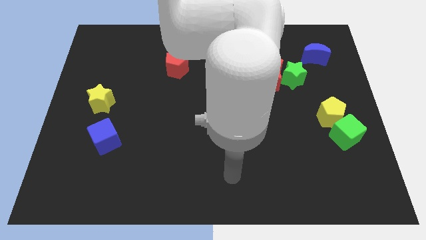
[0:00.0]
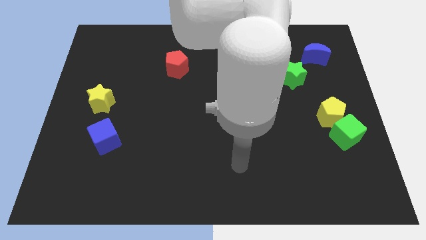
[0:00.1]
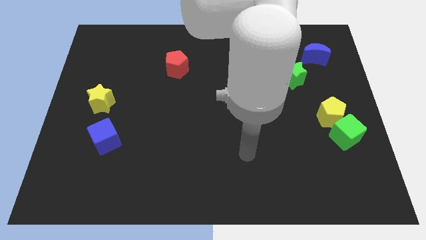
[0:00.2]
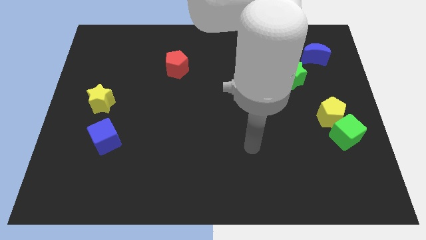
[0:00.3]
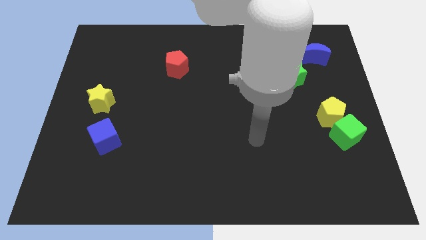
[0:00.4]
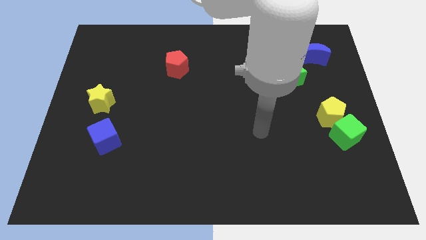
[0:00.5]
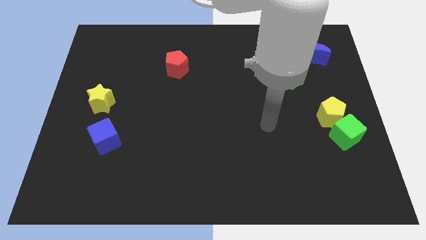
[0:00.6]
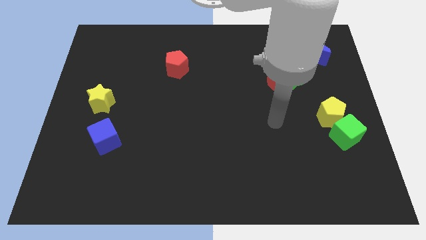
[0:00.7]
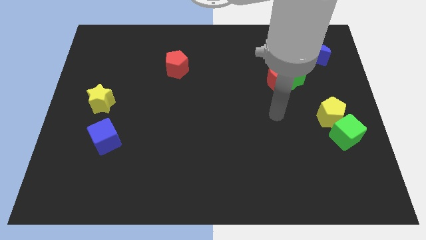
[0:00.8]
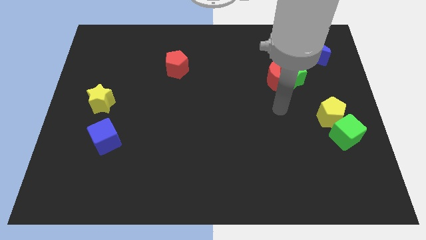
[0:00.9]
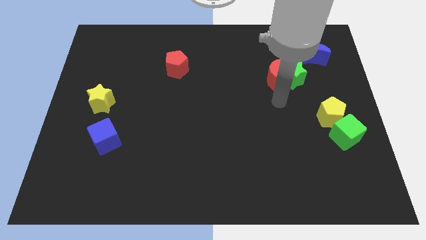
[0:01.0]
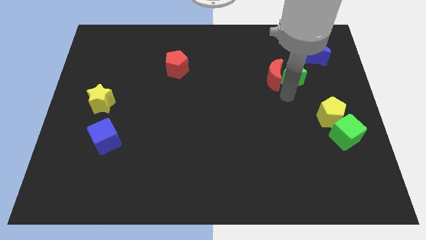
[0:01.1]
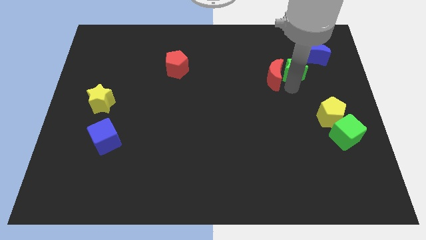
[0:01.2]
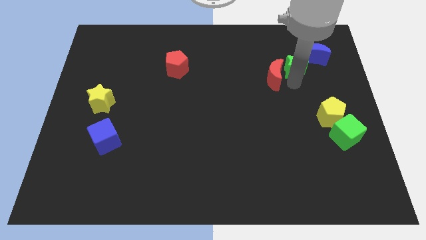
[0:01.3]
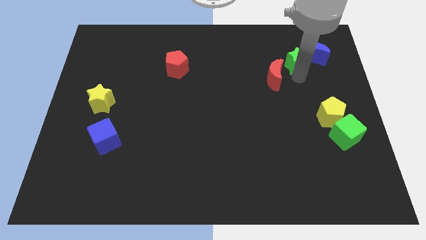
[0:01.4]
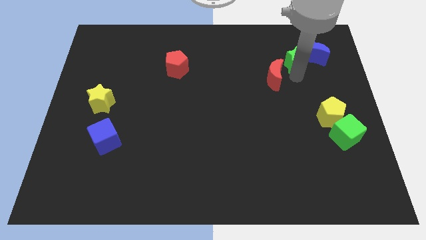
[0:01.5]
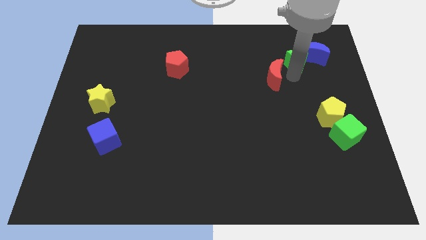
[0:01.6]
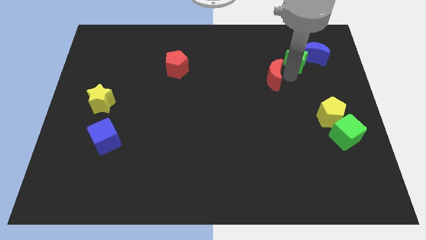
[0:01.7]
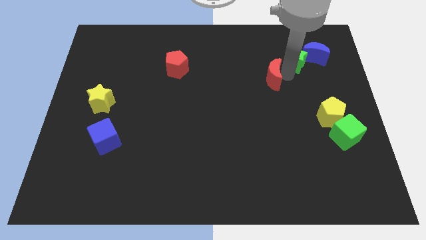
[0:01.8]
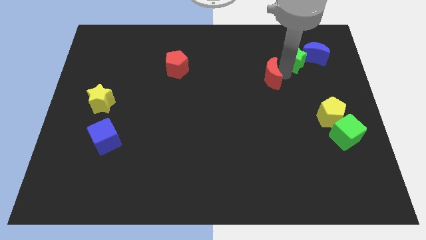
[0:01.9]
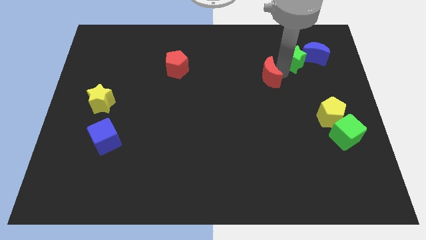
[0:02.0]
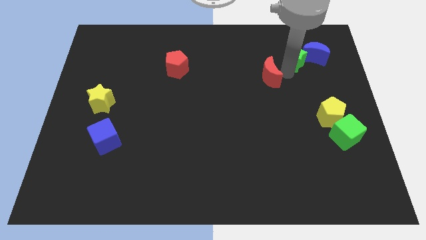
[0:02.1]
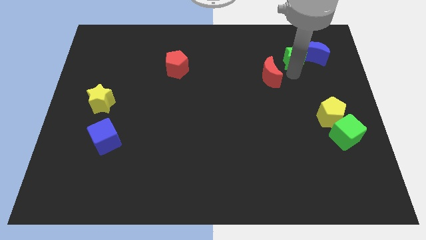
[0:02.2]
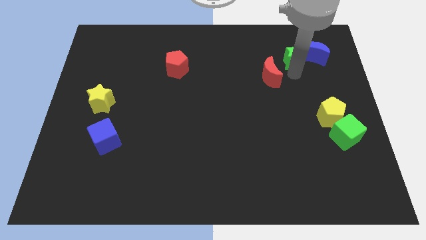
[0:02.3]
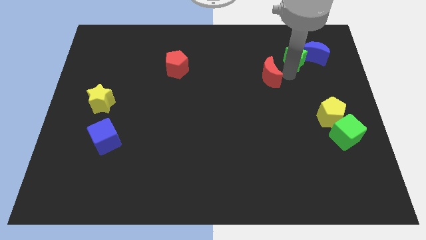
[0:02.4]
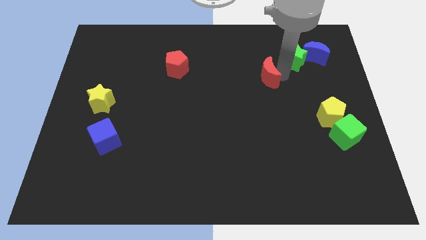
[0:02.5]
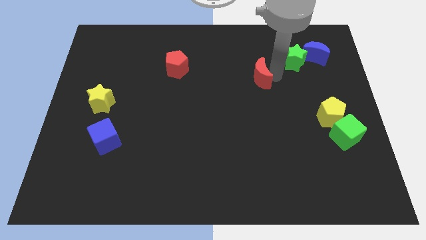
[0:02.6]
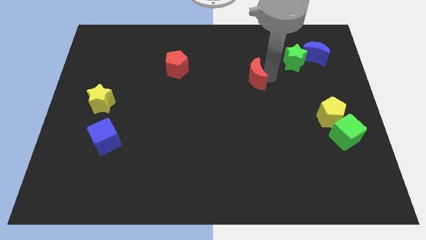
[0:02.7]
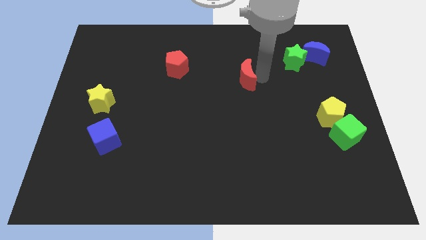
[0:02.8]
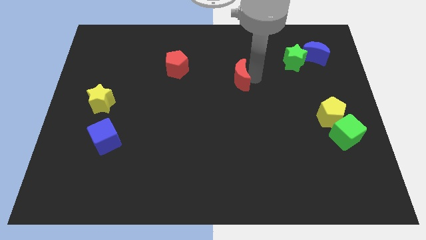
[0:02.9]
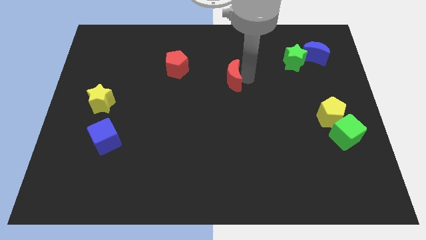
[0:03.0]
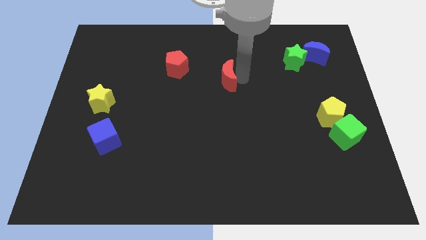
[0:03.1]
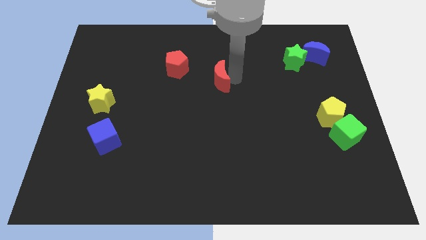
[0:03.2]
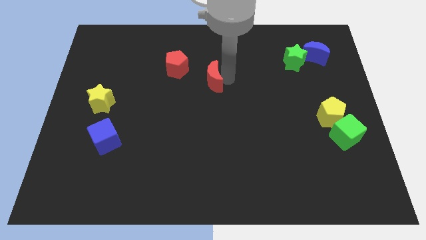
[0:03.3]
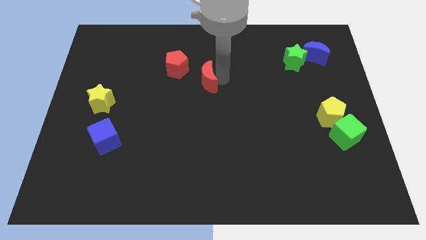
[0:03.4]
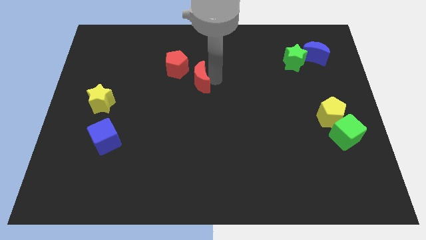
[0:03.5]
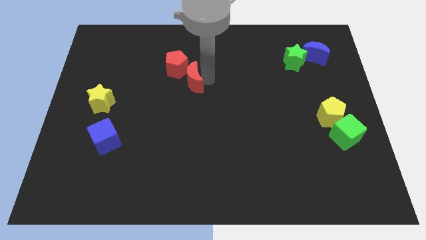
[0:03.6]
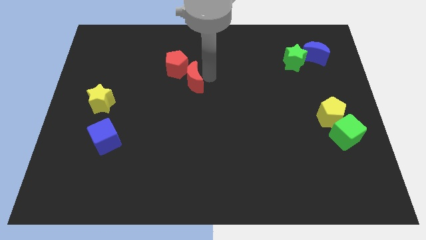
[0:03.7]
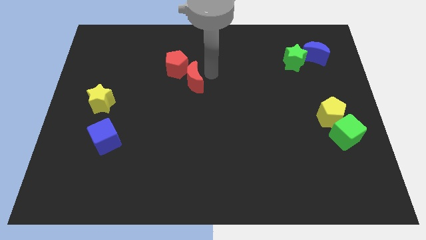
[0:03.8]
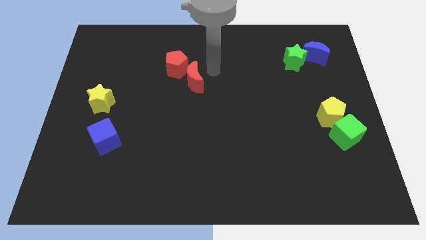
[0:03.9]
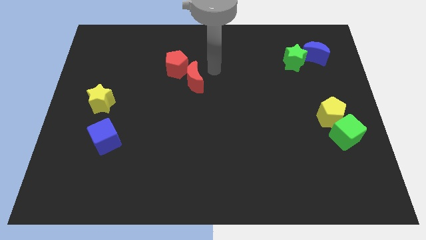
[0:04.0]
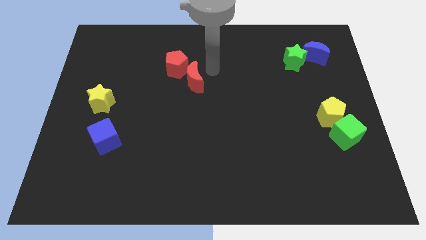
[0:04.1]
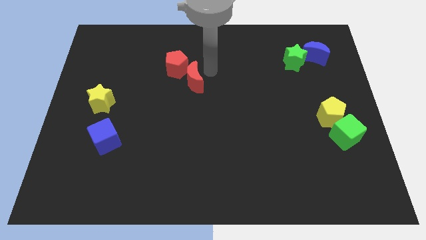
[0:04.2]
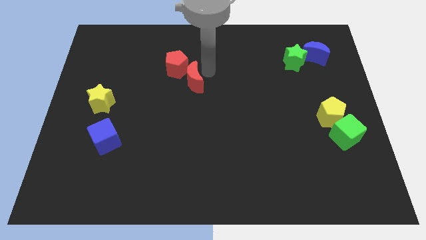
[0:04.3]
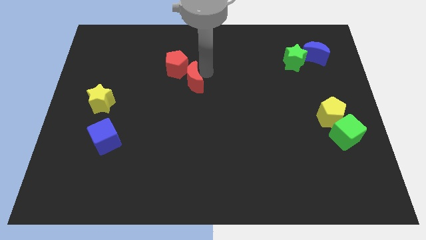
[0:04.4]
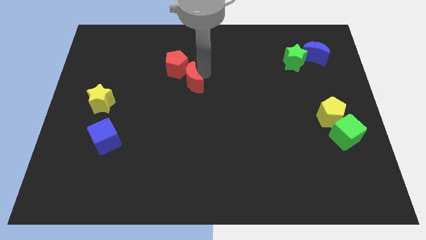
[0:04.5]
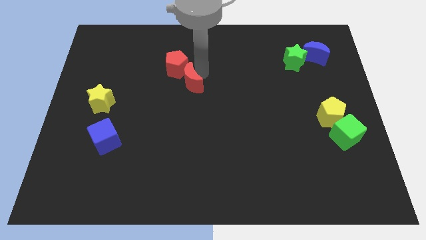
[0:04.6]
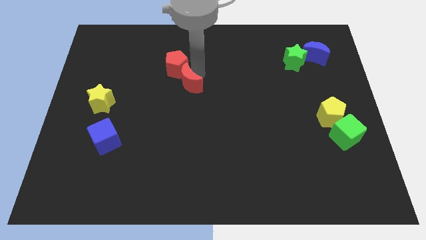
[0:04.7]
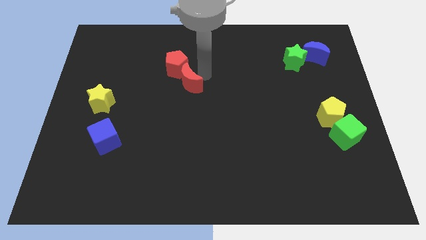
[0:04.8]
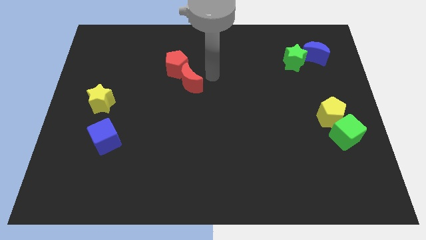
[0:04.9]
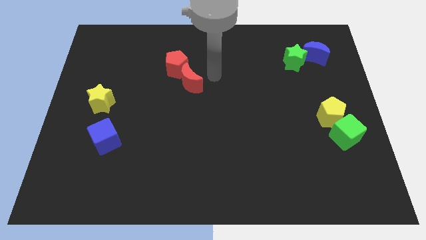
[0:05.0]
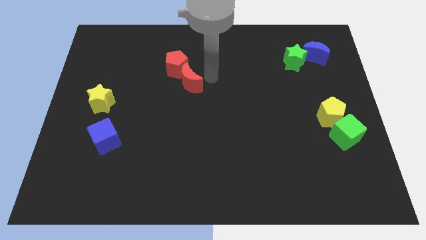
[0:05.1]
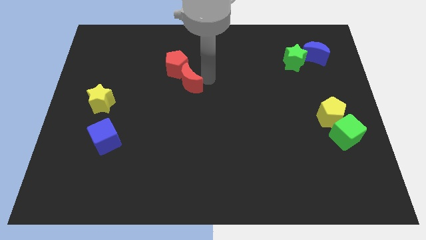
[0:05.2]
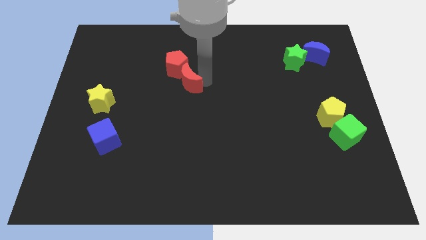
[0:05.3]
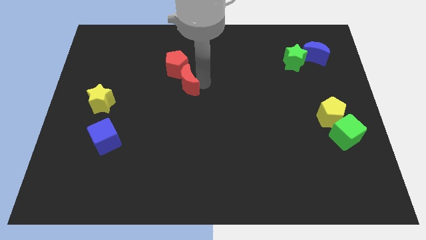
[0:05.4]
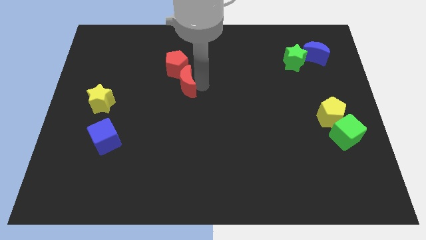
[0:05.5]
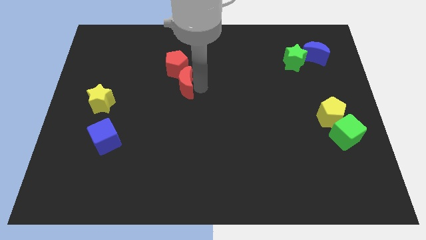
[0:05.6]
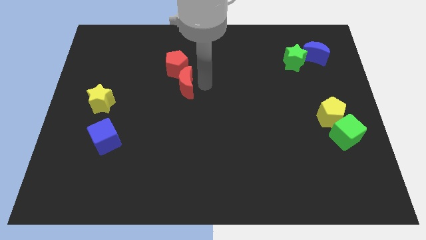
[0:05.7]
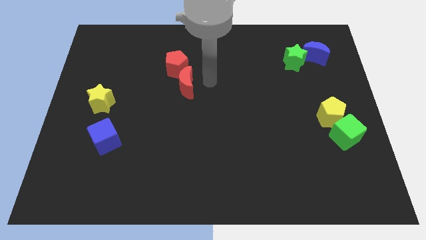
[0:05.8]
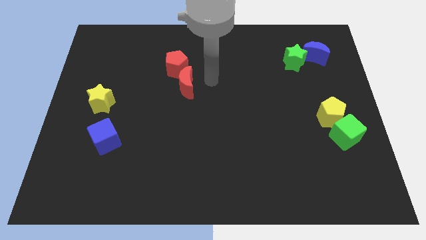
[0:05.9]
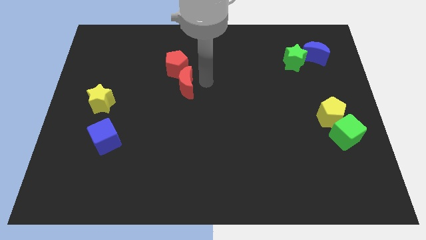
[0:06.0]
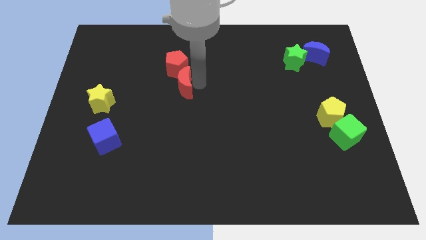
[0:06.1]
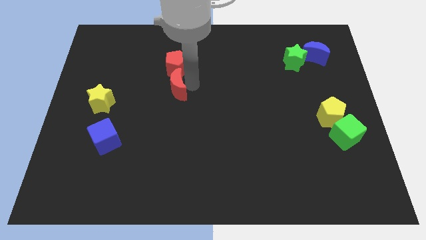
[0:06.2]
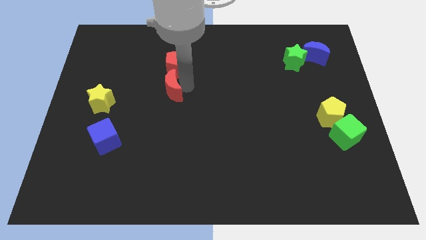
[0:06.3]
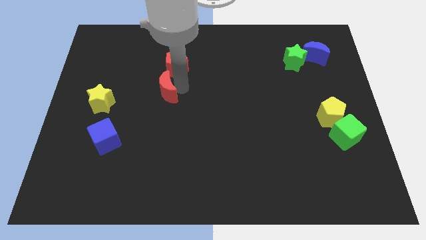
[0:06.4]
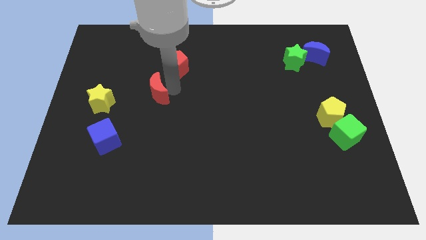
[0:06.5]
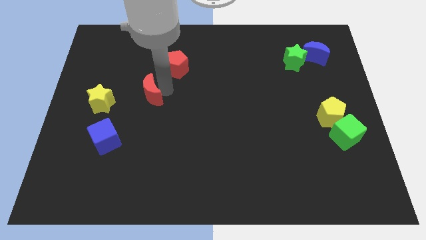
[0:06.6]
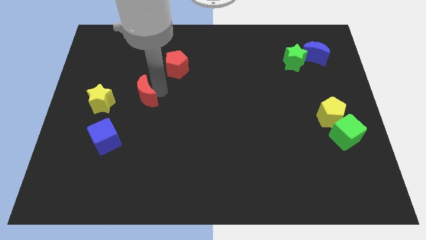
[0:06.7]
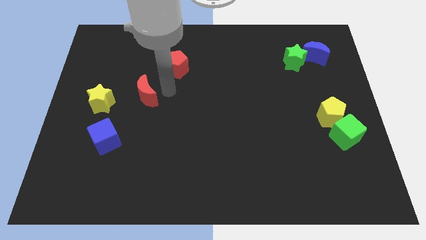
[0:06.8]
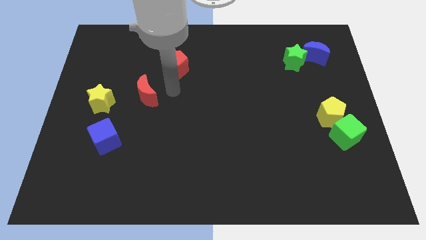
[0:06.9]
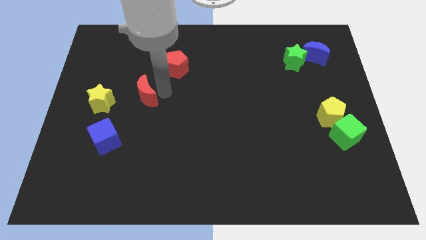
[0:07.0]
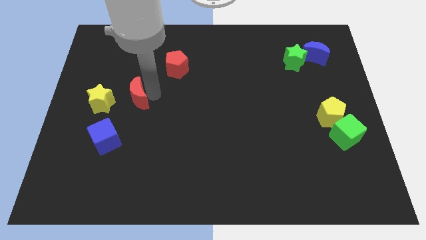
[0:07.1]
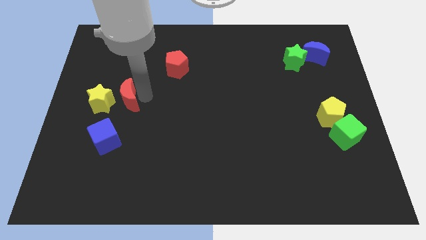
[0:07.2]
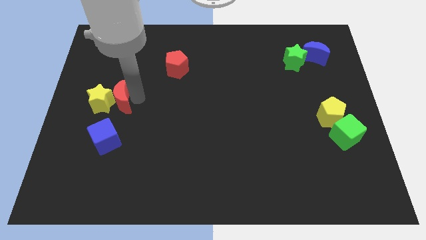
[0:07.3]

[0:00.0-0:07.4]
push the red moon next to the yellow star

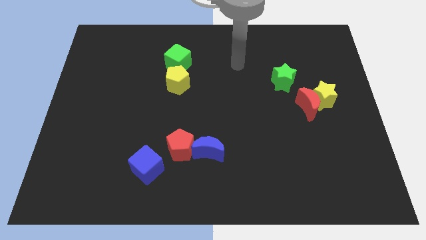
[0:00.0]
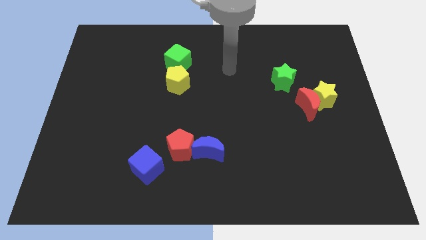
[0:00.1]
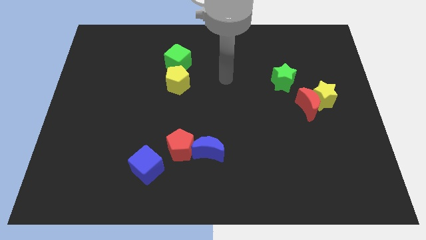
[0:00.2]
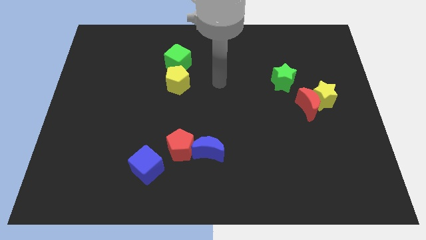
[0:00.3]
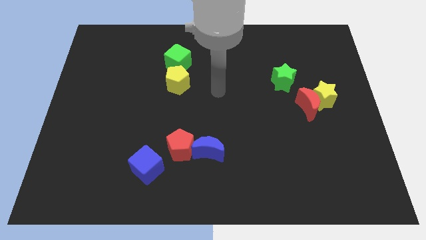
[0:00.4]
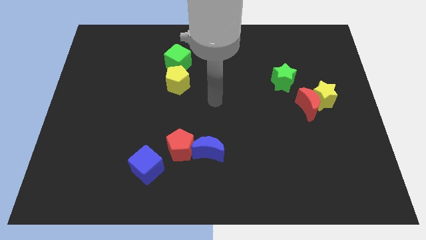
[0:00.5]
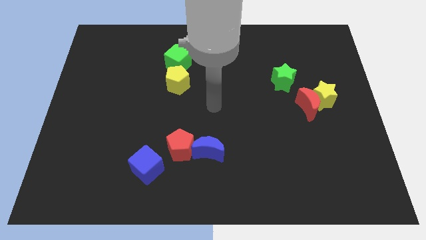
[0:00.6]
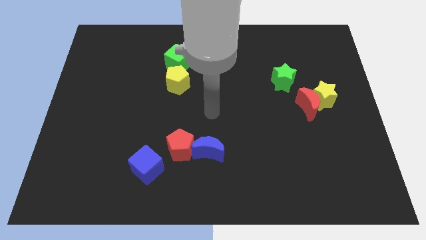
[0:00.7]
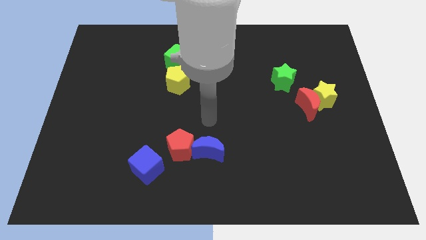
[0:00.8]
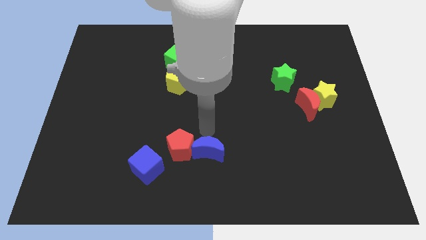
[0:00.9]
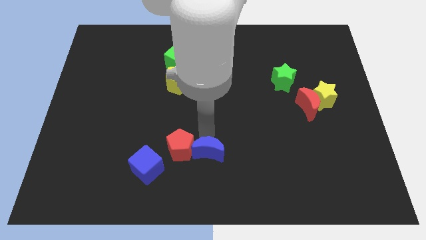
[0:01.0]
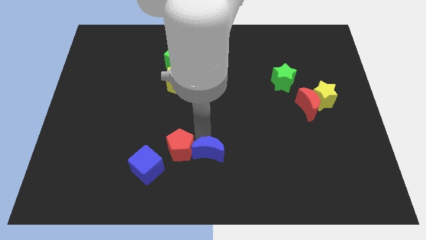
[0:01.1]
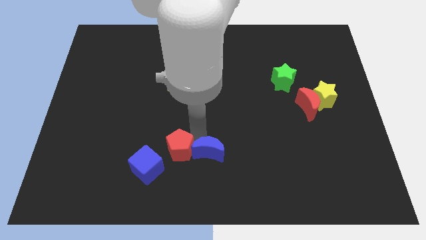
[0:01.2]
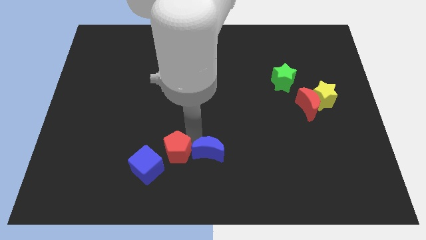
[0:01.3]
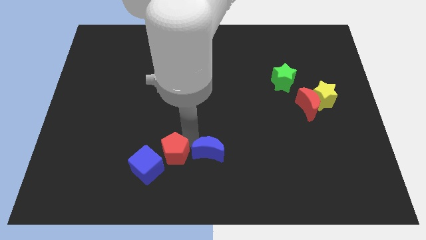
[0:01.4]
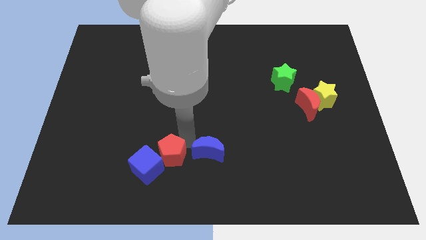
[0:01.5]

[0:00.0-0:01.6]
slide the red pentagon to the blue cube
